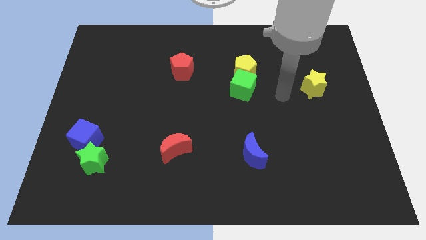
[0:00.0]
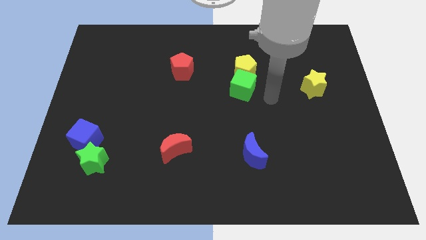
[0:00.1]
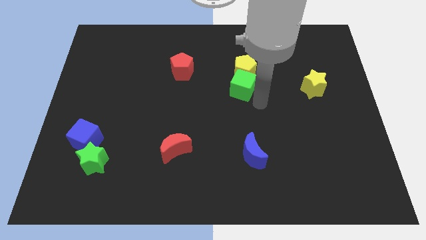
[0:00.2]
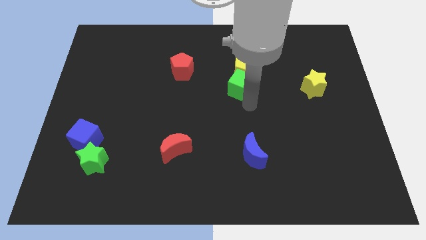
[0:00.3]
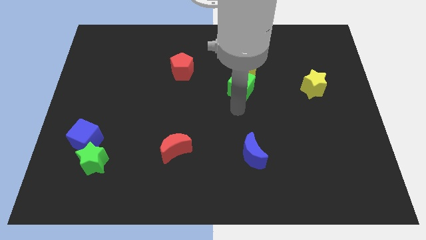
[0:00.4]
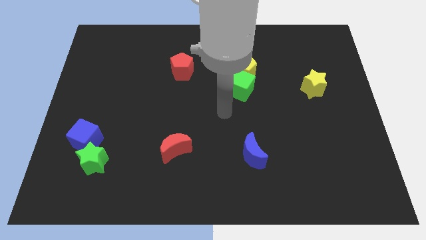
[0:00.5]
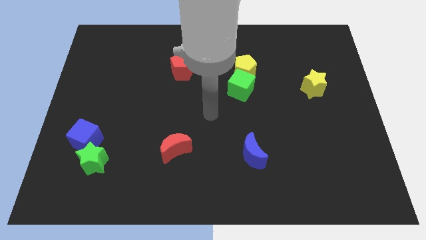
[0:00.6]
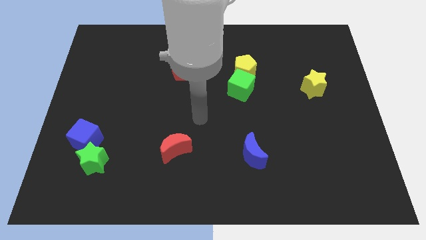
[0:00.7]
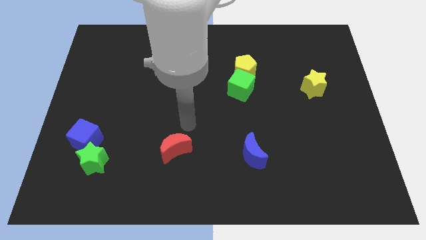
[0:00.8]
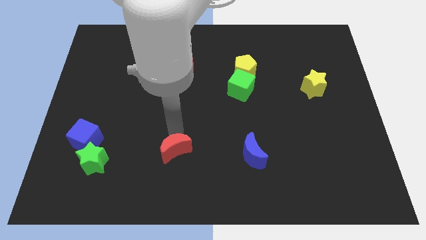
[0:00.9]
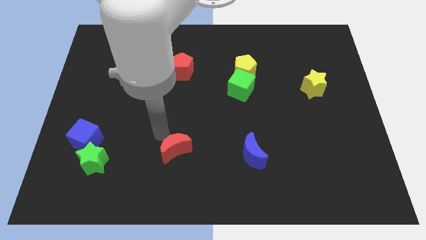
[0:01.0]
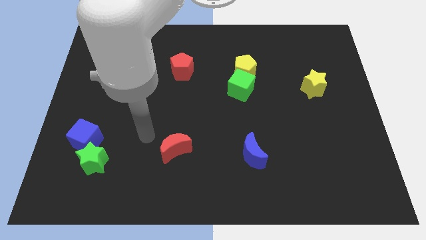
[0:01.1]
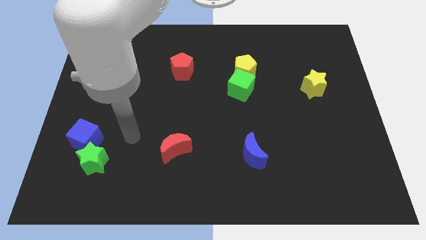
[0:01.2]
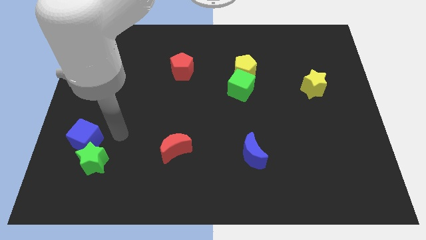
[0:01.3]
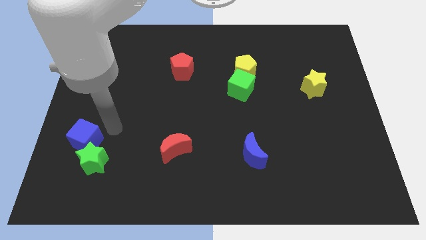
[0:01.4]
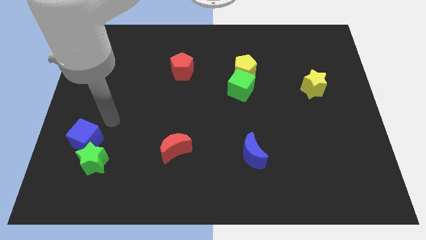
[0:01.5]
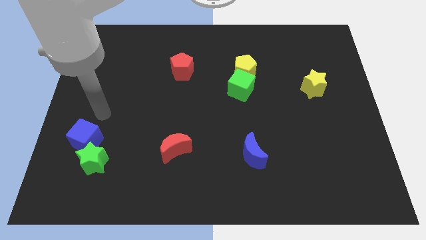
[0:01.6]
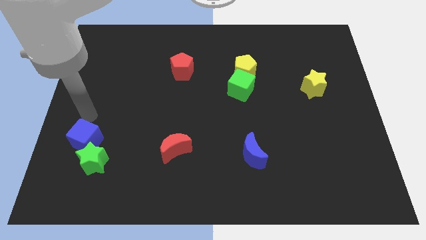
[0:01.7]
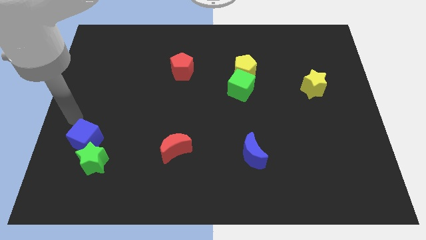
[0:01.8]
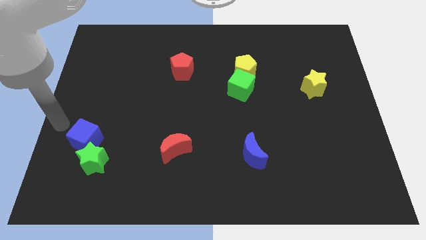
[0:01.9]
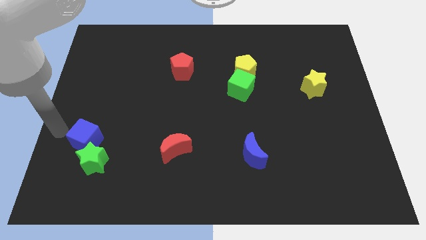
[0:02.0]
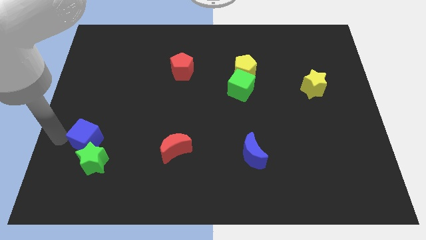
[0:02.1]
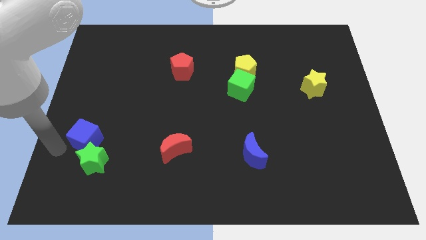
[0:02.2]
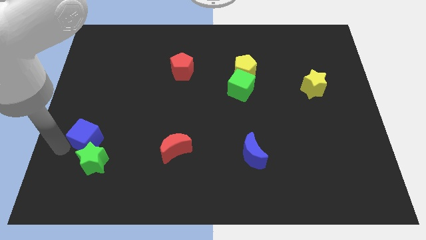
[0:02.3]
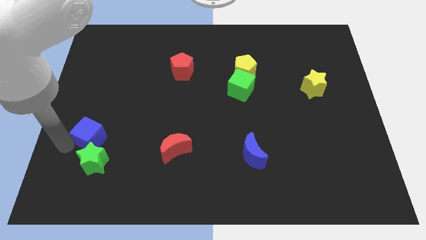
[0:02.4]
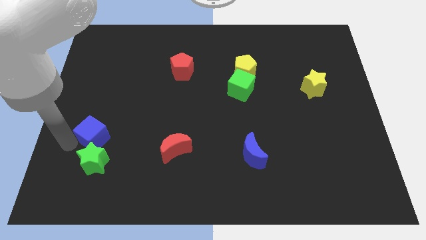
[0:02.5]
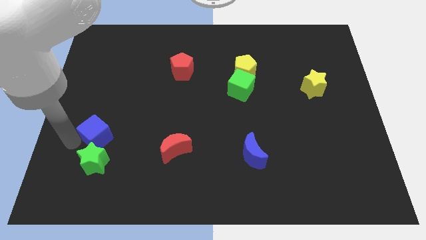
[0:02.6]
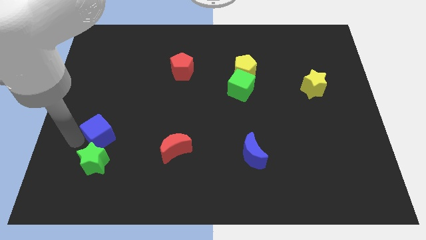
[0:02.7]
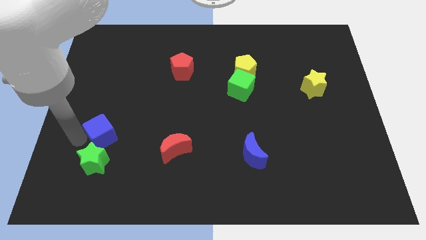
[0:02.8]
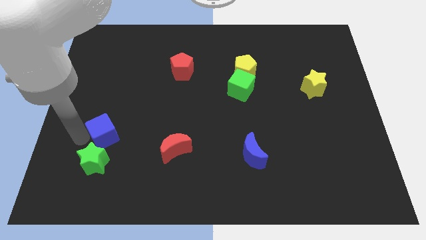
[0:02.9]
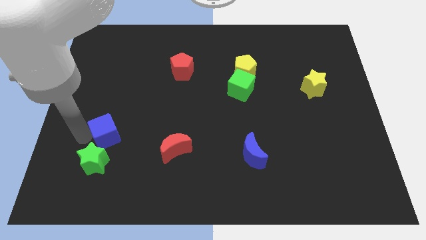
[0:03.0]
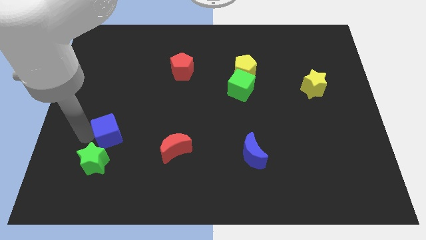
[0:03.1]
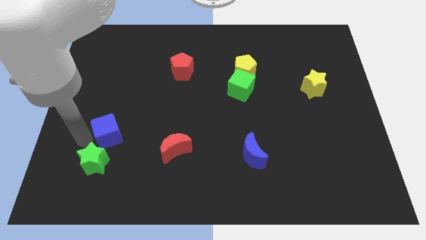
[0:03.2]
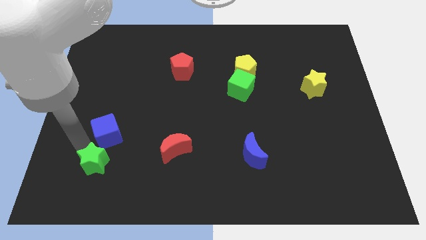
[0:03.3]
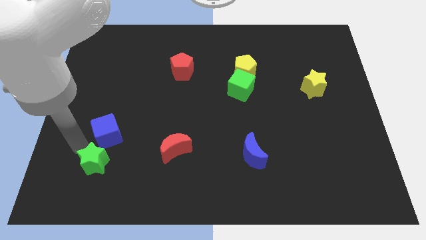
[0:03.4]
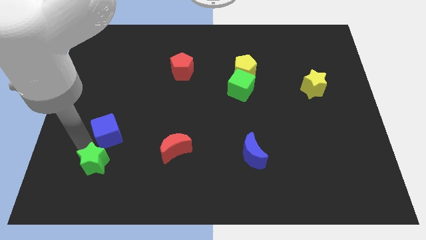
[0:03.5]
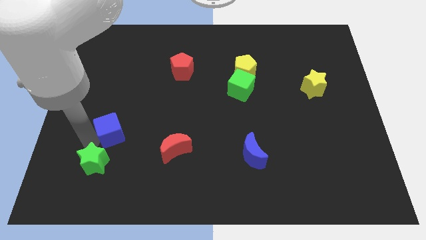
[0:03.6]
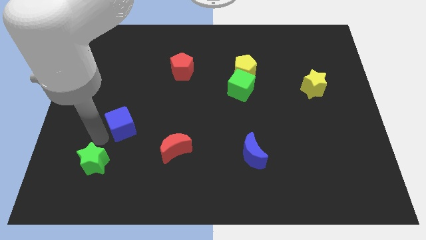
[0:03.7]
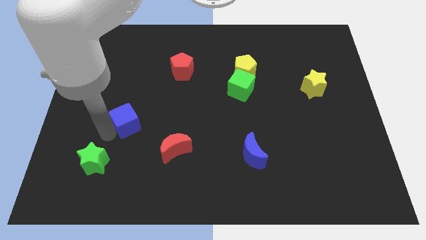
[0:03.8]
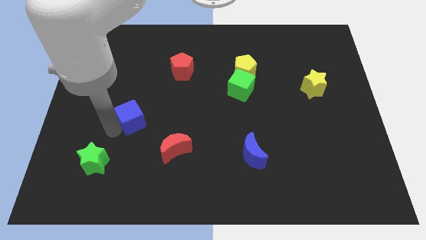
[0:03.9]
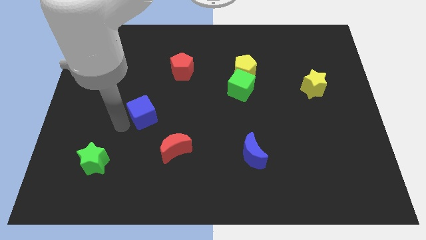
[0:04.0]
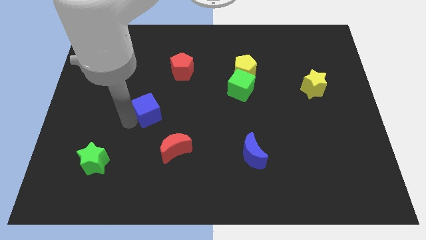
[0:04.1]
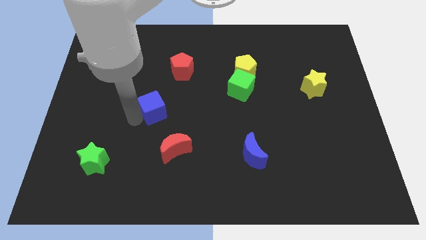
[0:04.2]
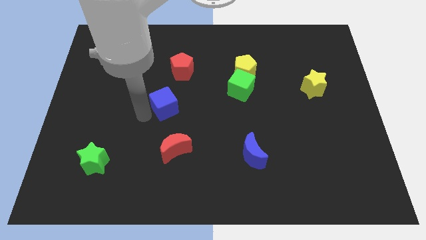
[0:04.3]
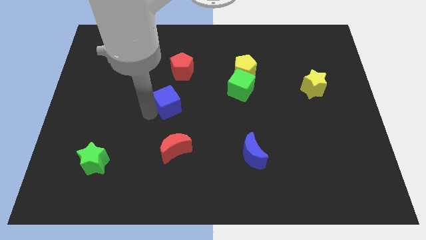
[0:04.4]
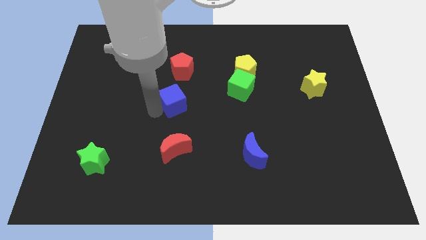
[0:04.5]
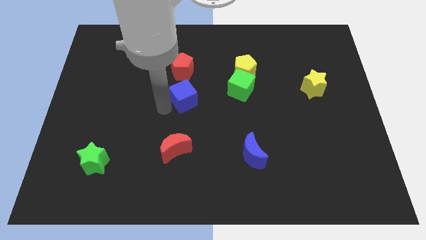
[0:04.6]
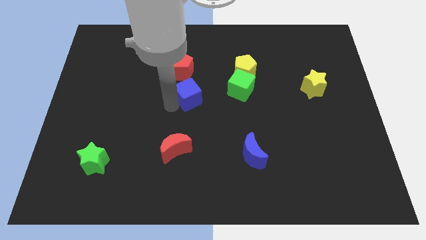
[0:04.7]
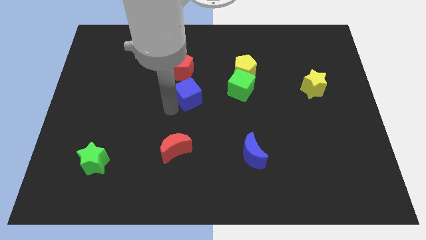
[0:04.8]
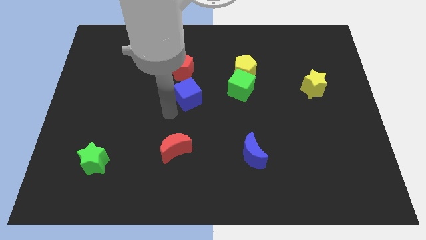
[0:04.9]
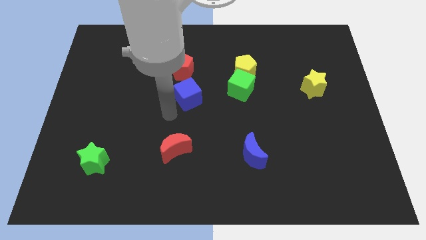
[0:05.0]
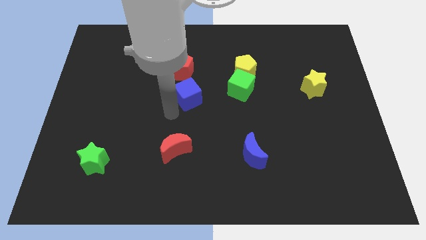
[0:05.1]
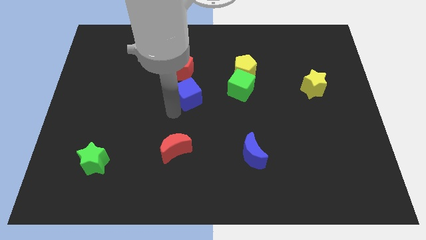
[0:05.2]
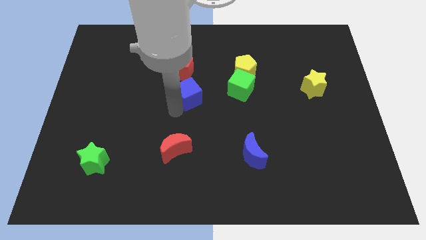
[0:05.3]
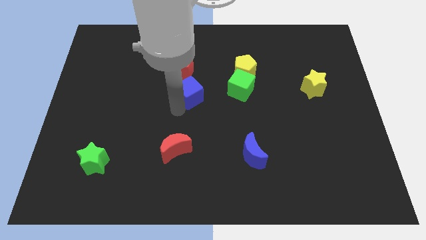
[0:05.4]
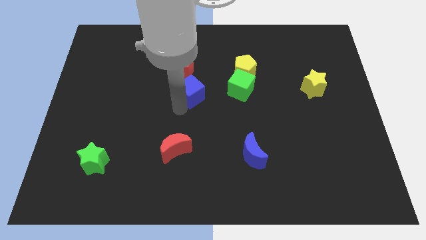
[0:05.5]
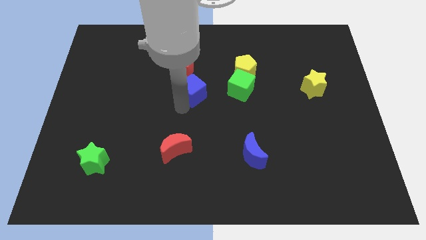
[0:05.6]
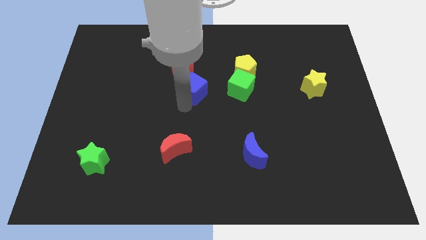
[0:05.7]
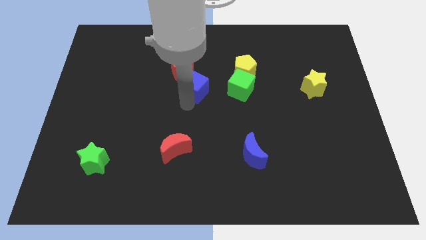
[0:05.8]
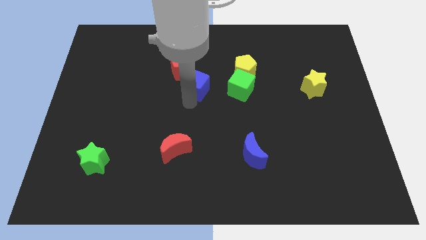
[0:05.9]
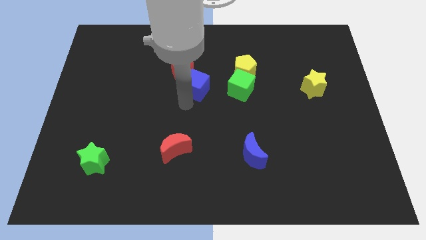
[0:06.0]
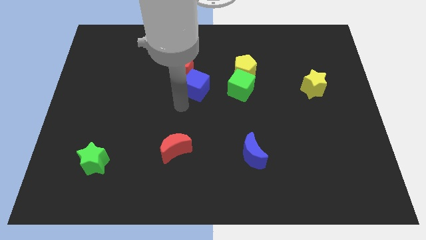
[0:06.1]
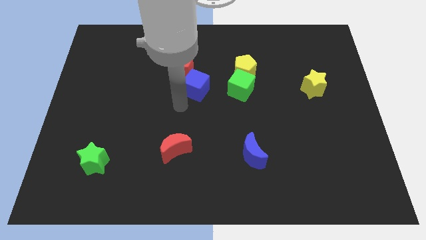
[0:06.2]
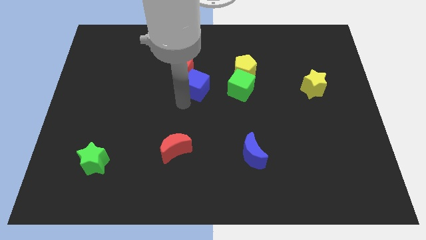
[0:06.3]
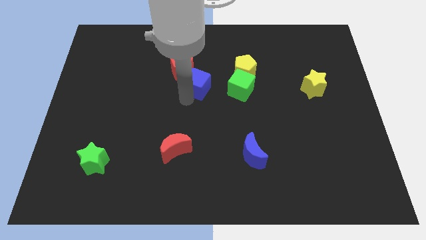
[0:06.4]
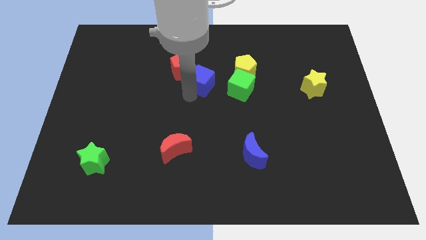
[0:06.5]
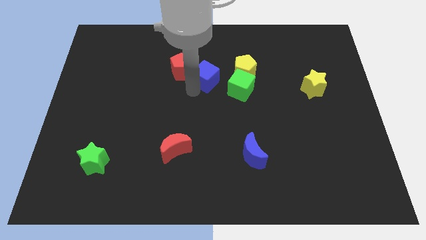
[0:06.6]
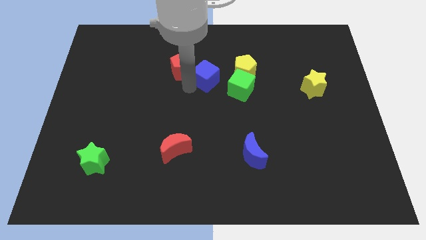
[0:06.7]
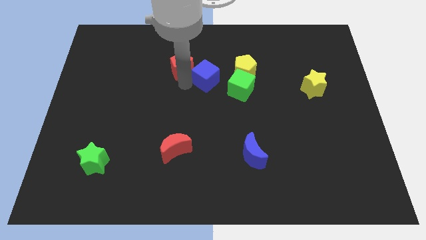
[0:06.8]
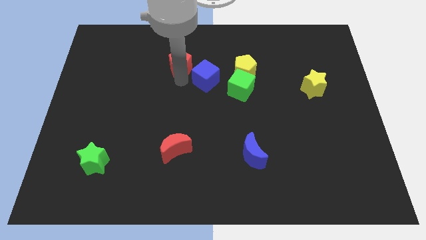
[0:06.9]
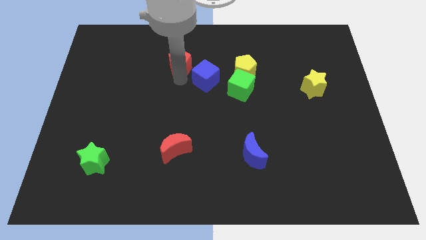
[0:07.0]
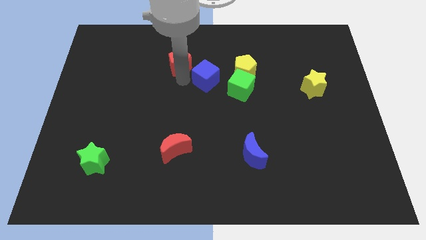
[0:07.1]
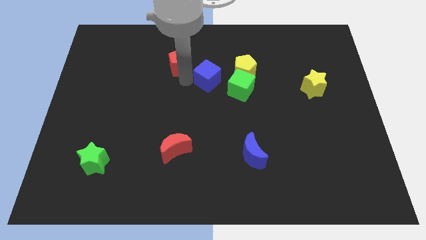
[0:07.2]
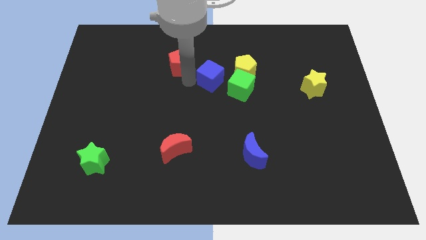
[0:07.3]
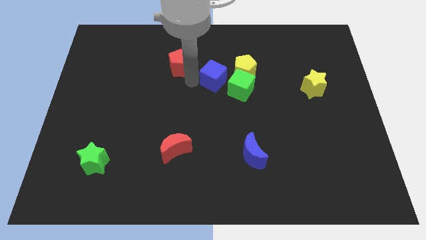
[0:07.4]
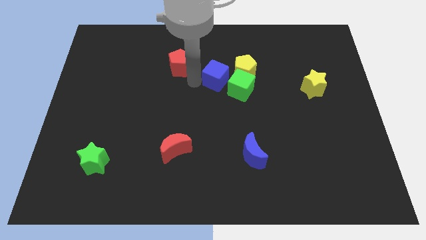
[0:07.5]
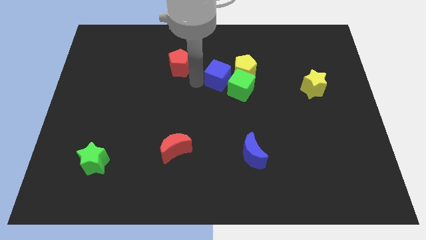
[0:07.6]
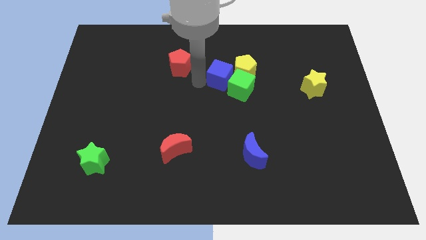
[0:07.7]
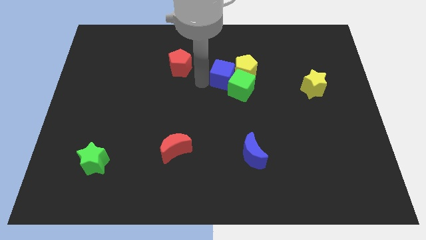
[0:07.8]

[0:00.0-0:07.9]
move the blue cube to the yellow pentagon
